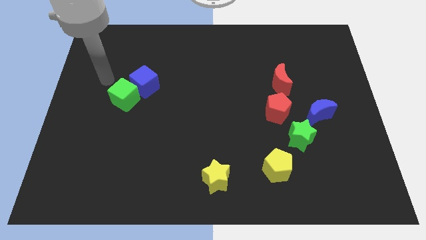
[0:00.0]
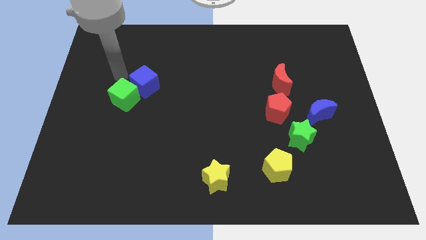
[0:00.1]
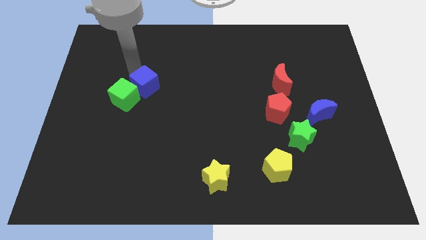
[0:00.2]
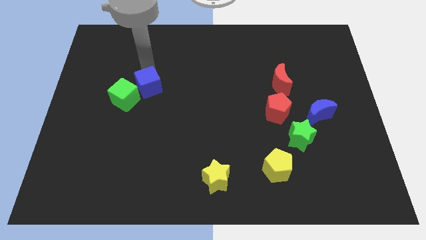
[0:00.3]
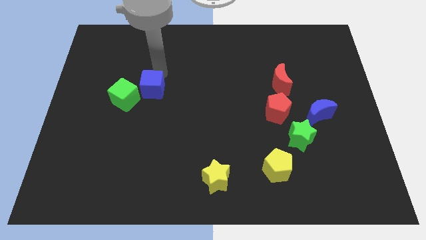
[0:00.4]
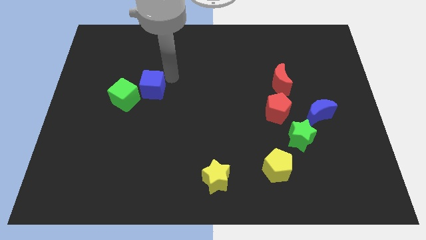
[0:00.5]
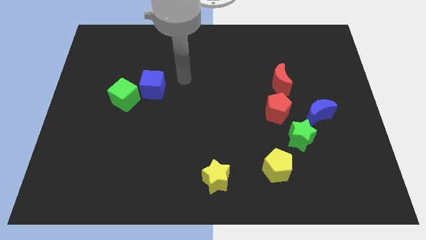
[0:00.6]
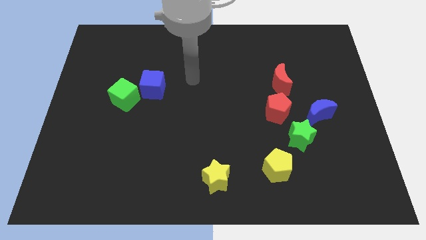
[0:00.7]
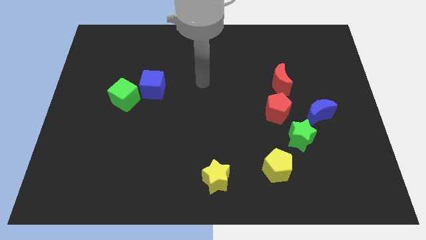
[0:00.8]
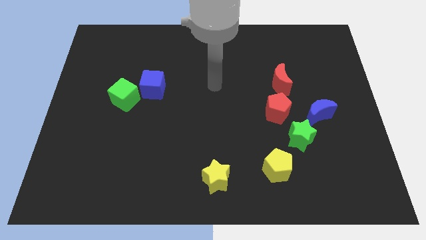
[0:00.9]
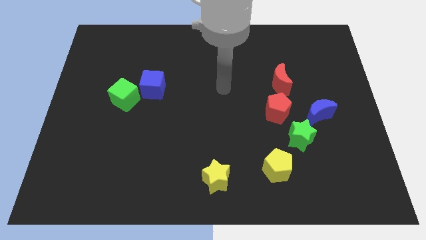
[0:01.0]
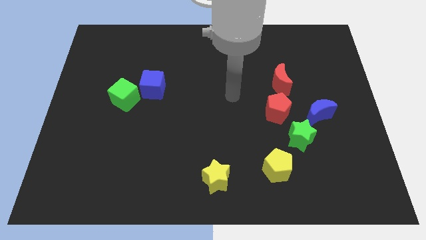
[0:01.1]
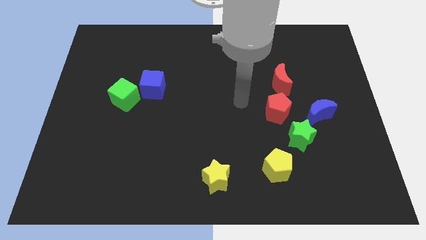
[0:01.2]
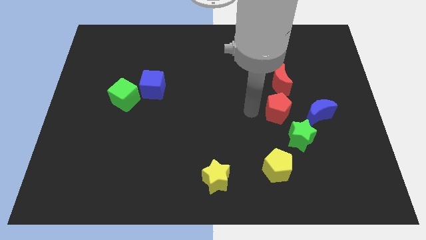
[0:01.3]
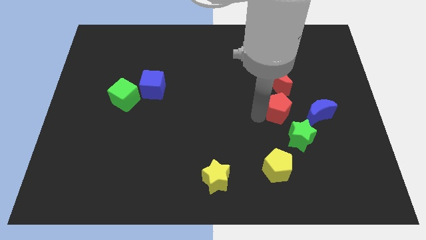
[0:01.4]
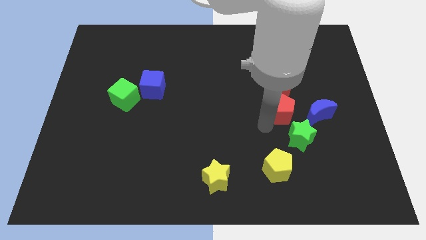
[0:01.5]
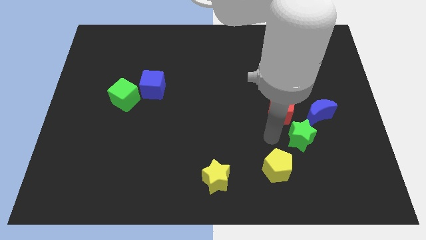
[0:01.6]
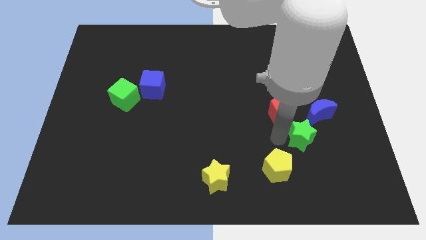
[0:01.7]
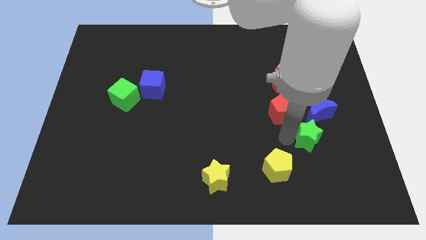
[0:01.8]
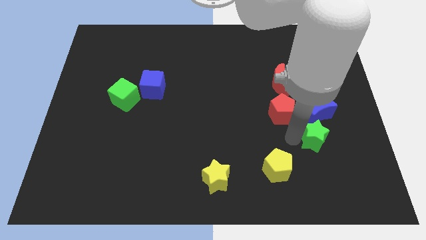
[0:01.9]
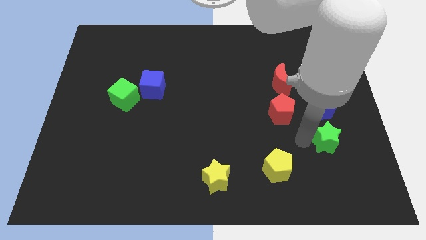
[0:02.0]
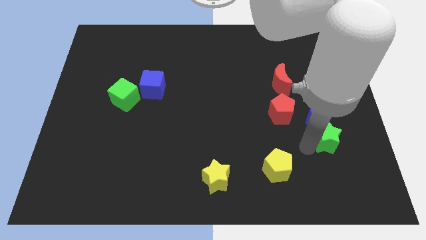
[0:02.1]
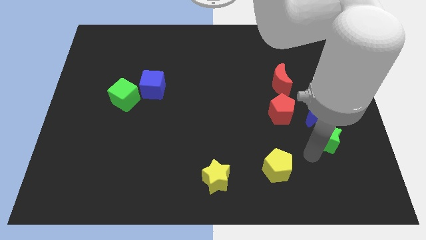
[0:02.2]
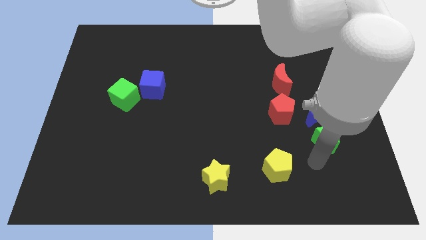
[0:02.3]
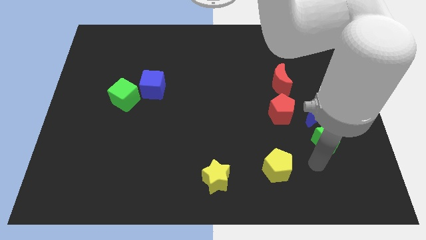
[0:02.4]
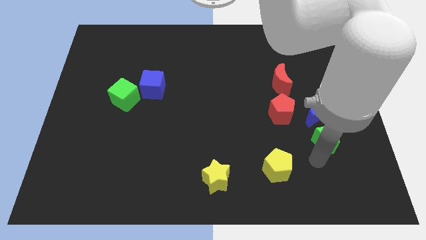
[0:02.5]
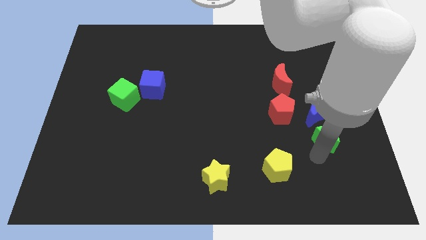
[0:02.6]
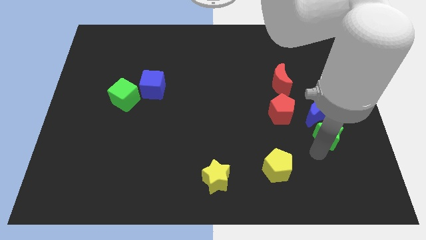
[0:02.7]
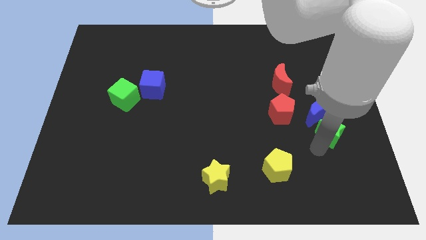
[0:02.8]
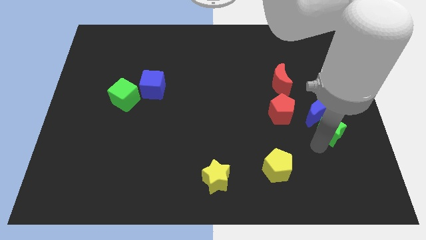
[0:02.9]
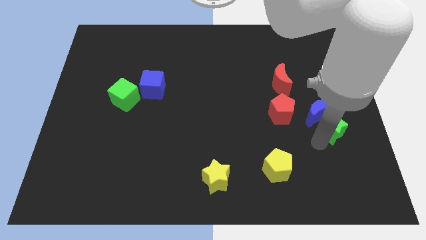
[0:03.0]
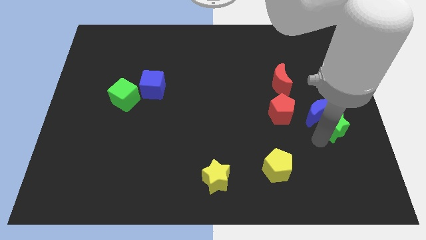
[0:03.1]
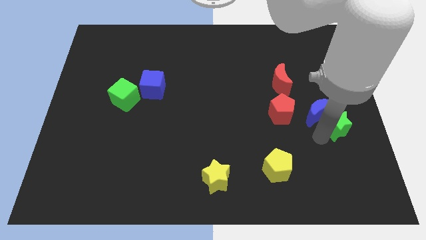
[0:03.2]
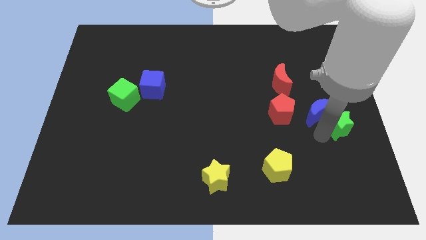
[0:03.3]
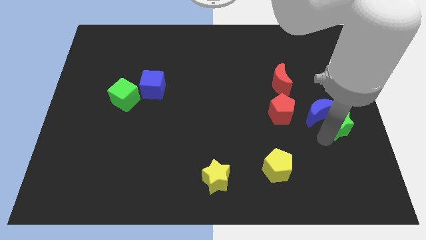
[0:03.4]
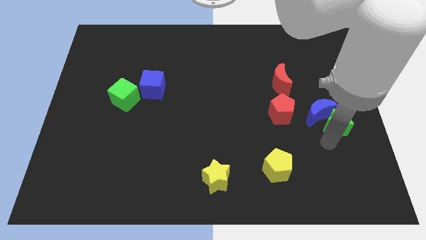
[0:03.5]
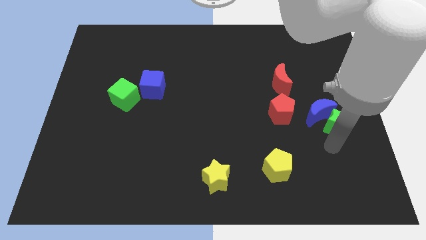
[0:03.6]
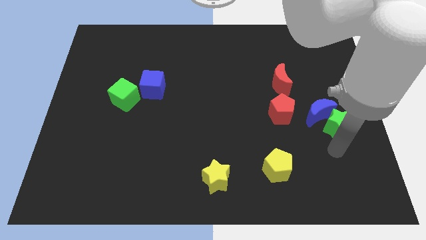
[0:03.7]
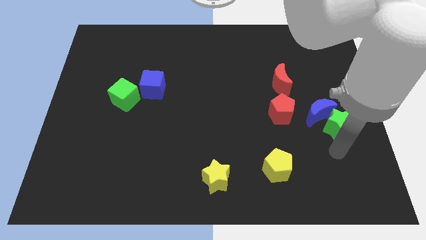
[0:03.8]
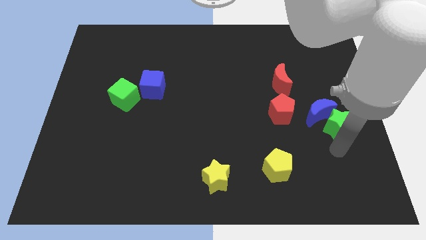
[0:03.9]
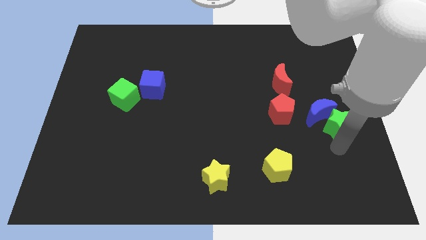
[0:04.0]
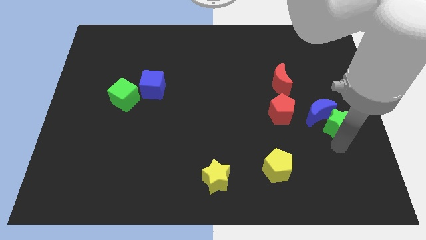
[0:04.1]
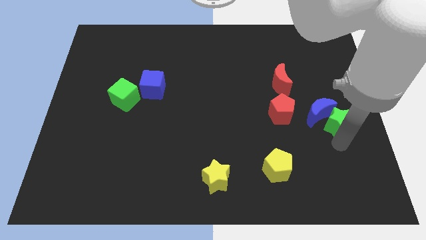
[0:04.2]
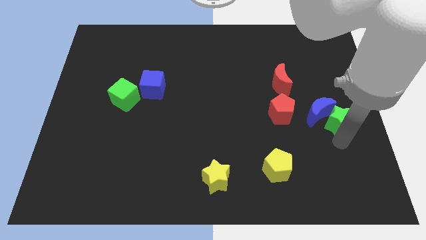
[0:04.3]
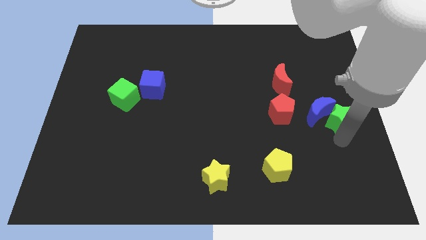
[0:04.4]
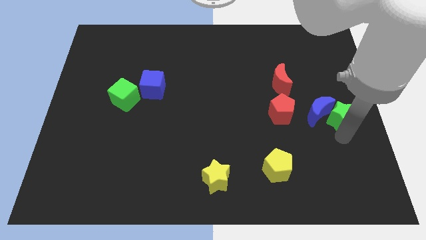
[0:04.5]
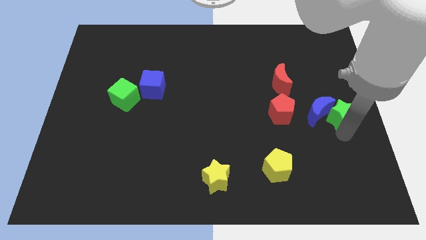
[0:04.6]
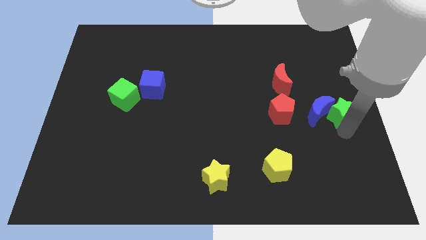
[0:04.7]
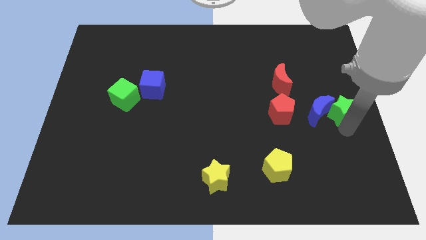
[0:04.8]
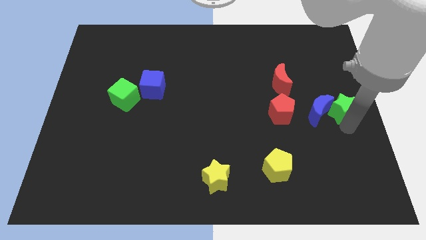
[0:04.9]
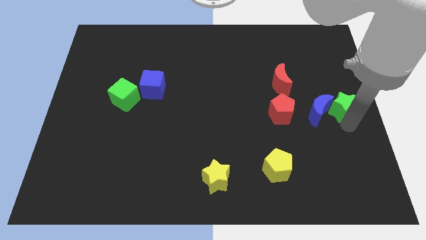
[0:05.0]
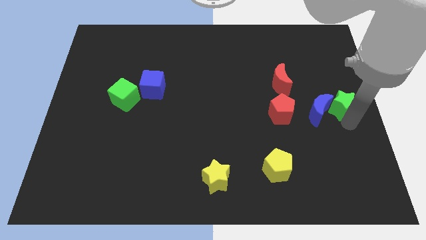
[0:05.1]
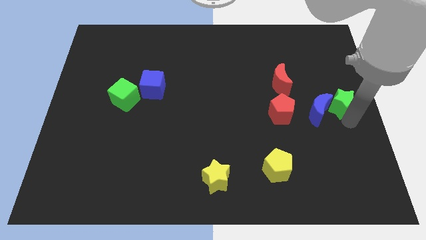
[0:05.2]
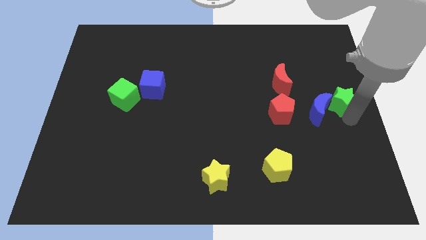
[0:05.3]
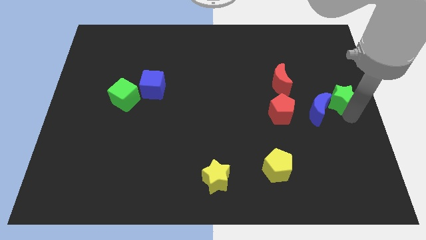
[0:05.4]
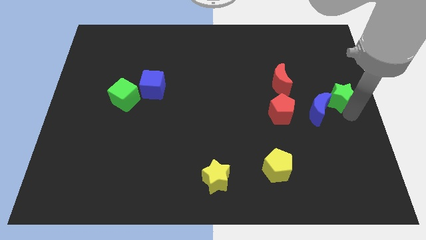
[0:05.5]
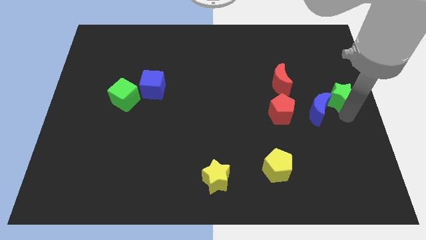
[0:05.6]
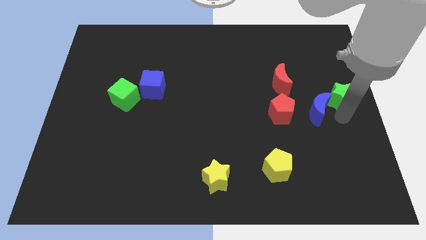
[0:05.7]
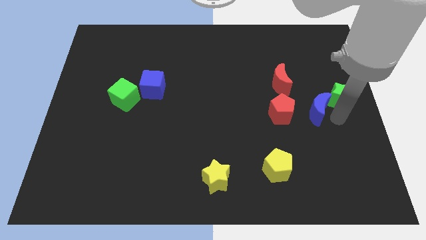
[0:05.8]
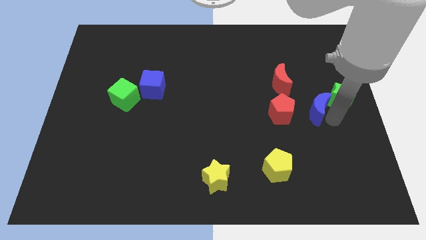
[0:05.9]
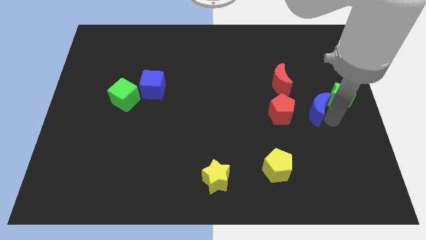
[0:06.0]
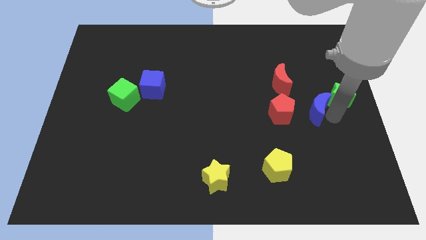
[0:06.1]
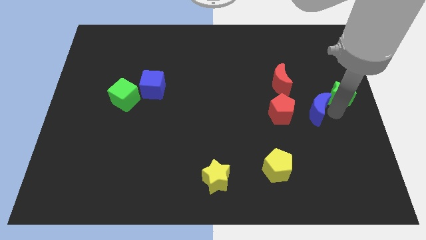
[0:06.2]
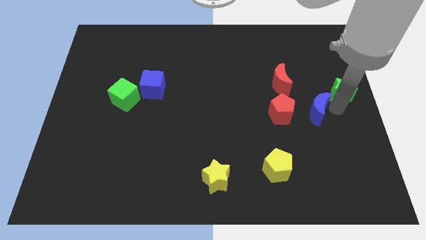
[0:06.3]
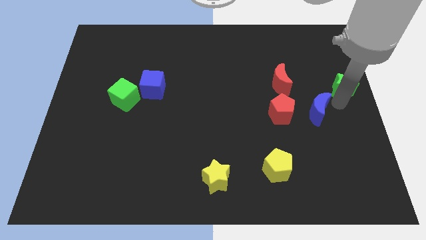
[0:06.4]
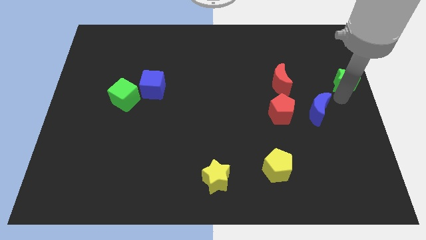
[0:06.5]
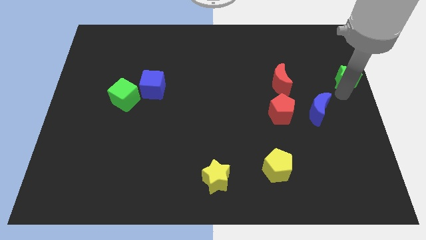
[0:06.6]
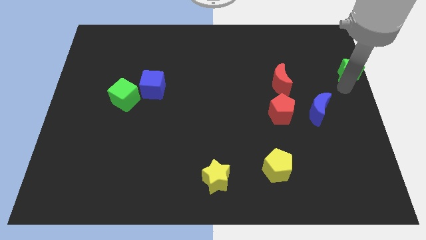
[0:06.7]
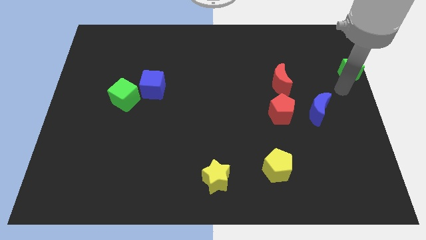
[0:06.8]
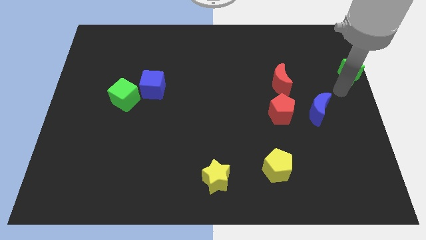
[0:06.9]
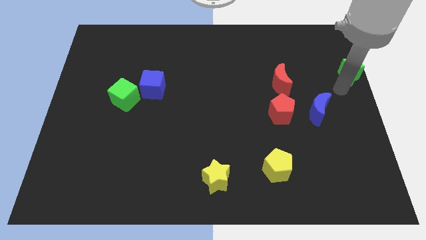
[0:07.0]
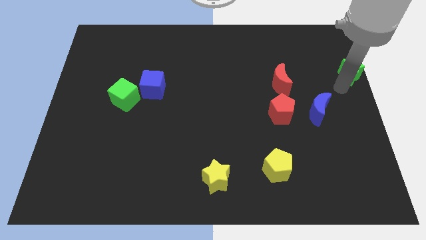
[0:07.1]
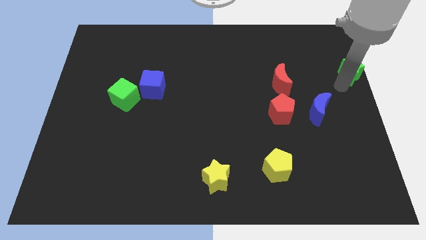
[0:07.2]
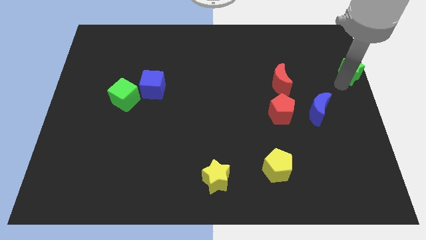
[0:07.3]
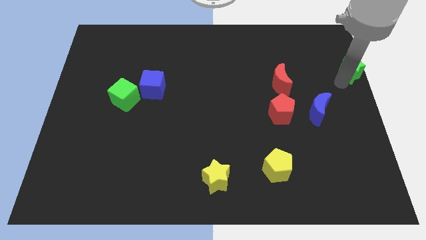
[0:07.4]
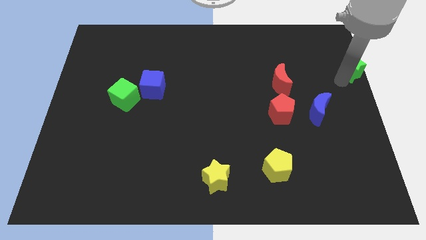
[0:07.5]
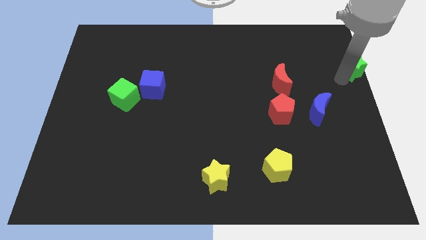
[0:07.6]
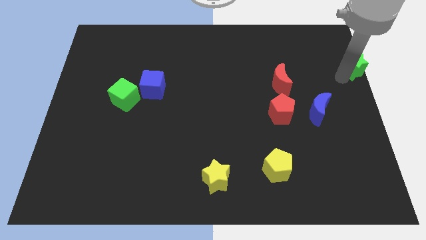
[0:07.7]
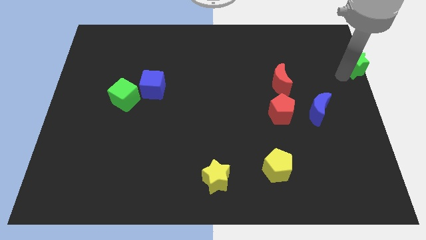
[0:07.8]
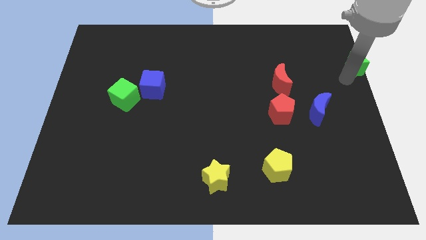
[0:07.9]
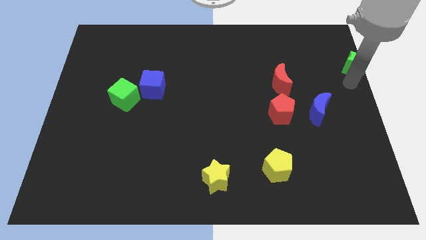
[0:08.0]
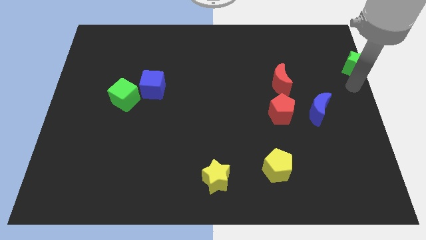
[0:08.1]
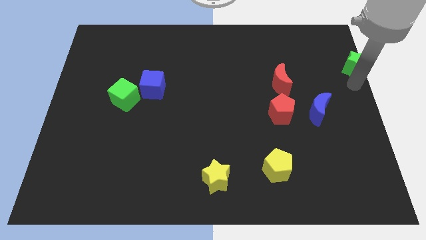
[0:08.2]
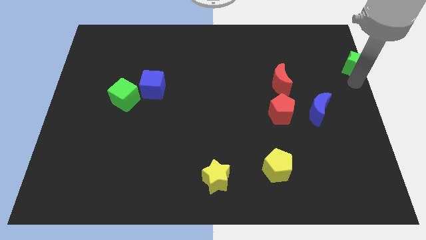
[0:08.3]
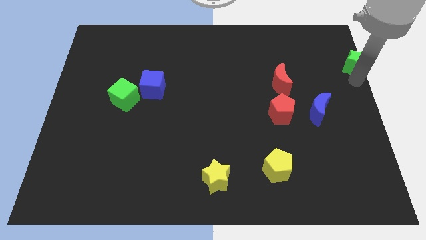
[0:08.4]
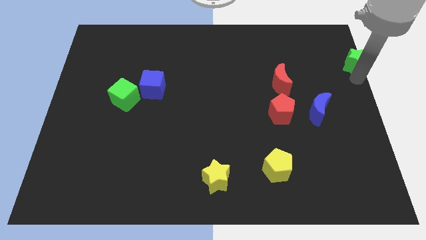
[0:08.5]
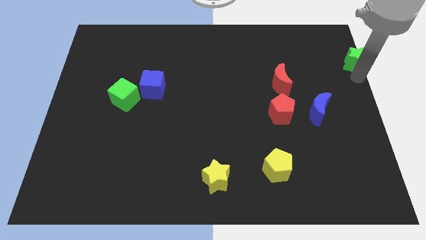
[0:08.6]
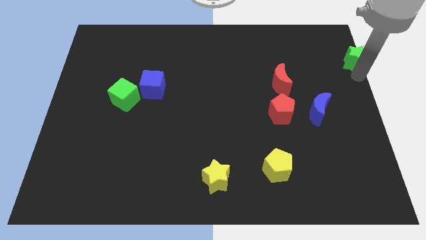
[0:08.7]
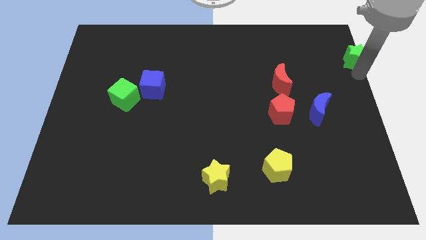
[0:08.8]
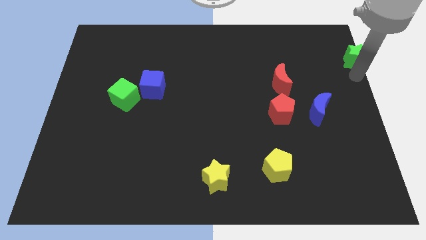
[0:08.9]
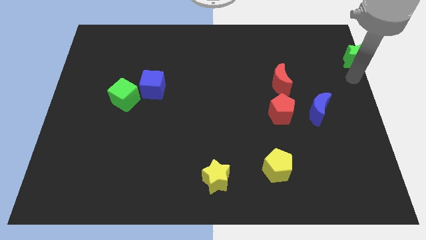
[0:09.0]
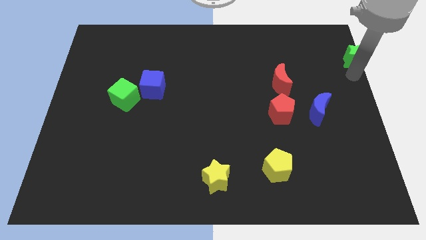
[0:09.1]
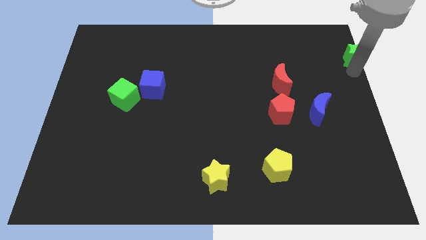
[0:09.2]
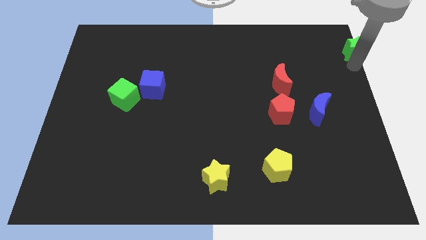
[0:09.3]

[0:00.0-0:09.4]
push the green star to the upper right corner
